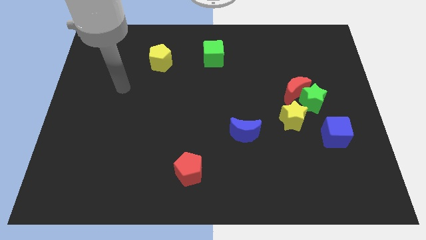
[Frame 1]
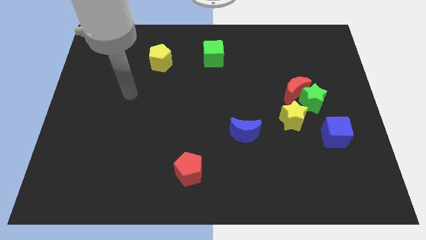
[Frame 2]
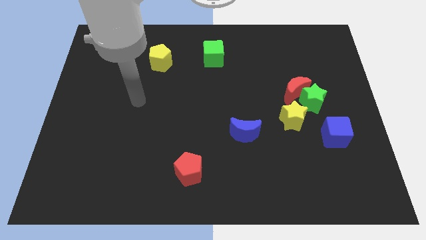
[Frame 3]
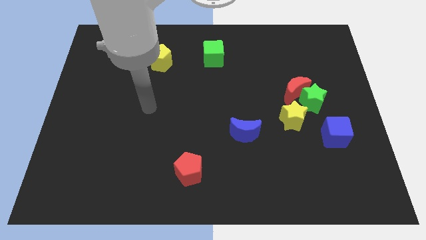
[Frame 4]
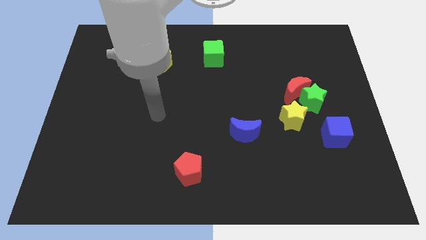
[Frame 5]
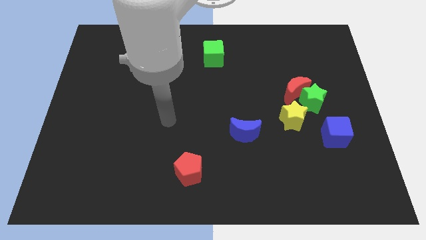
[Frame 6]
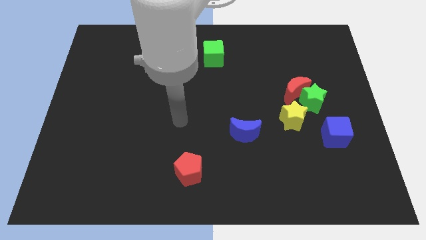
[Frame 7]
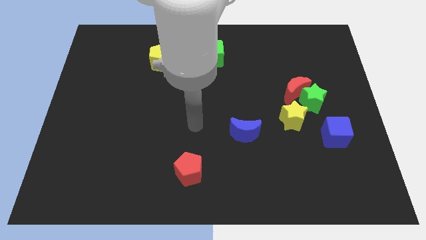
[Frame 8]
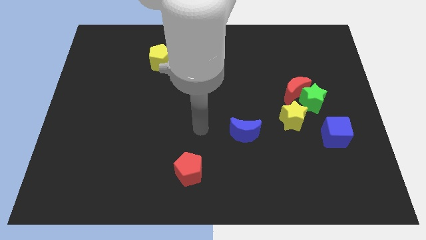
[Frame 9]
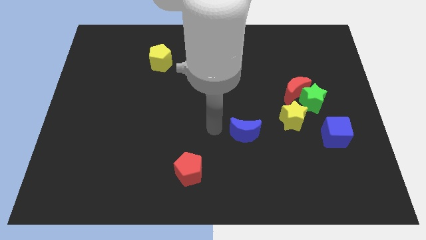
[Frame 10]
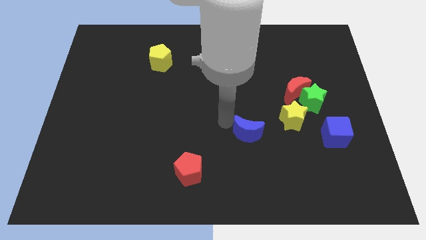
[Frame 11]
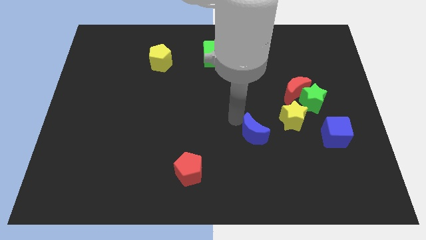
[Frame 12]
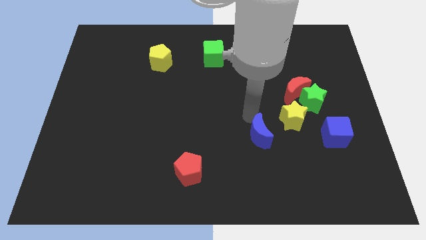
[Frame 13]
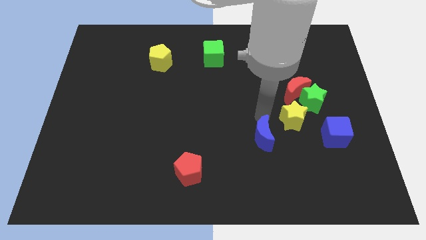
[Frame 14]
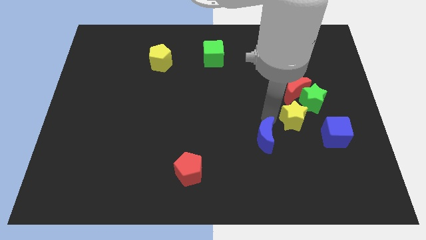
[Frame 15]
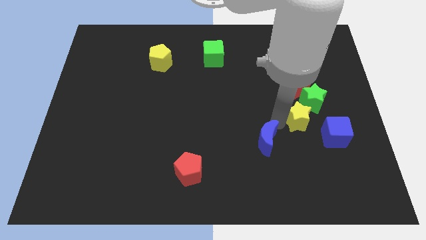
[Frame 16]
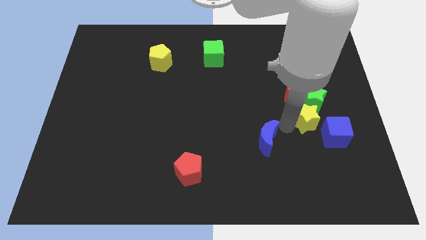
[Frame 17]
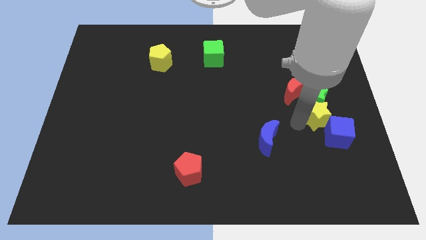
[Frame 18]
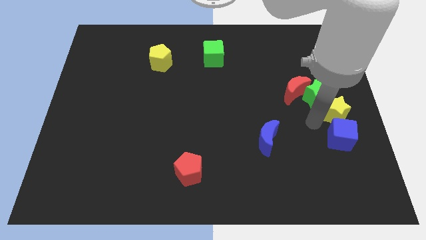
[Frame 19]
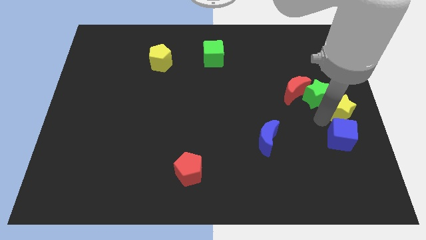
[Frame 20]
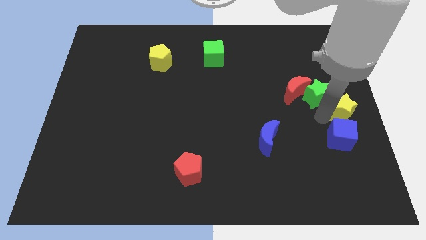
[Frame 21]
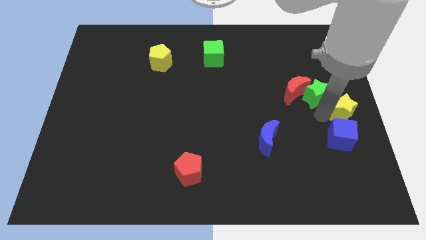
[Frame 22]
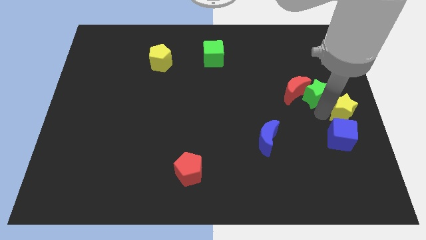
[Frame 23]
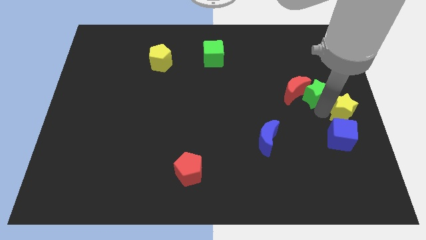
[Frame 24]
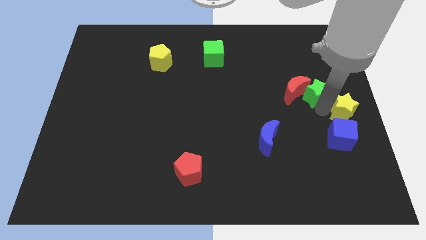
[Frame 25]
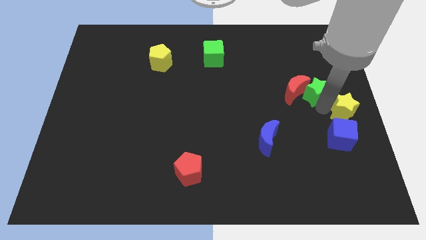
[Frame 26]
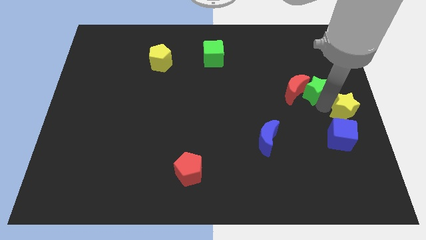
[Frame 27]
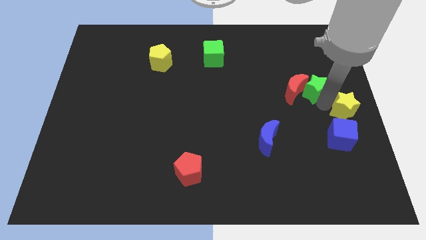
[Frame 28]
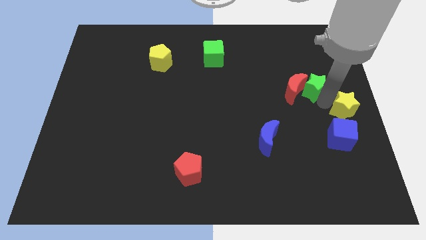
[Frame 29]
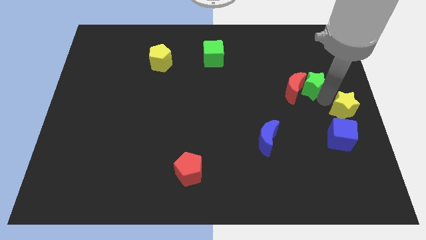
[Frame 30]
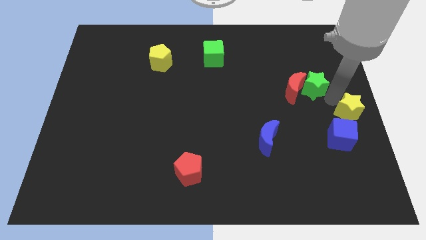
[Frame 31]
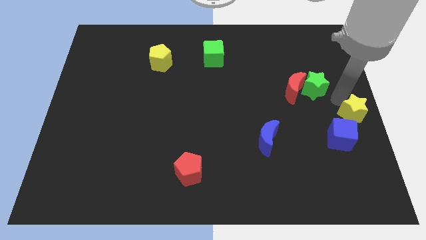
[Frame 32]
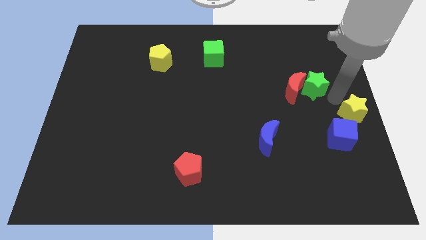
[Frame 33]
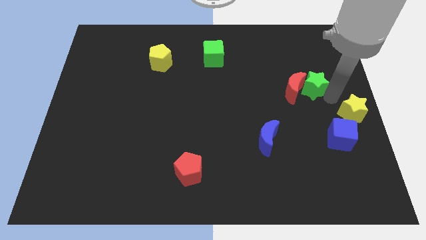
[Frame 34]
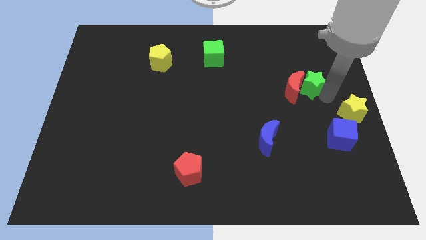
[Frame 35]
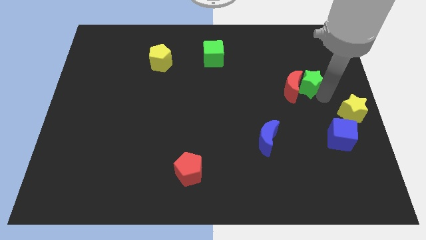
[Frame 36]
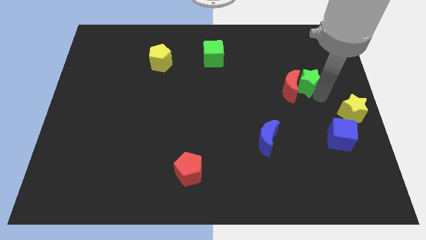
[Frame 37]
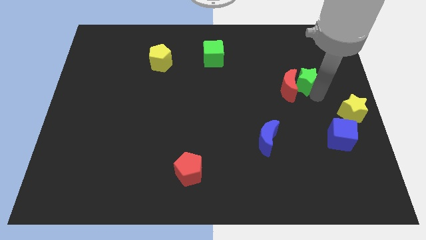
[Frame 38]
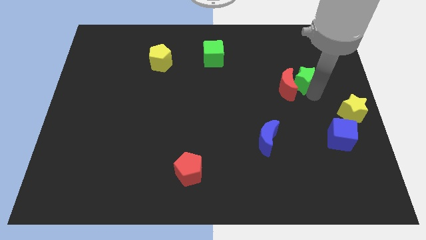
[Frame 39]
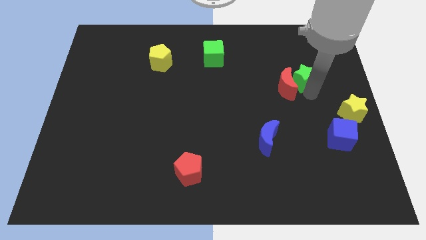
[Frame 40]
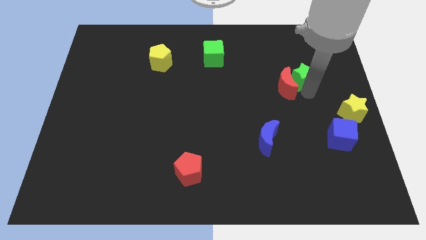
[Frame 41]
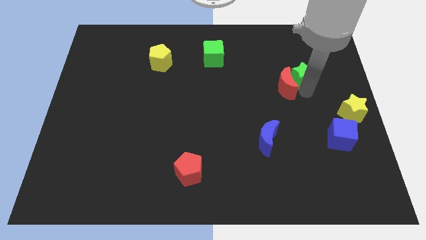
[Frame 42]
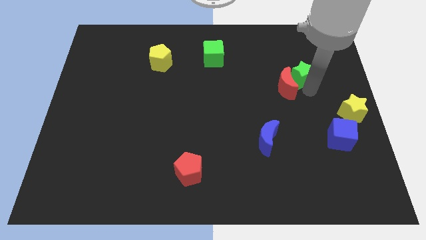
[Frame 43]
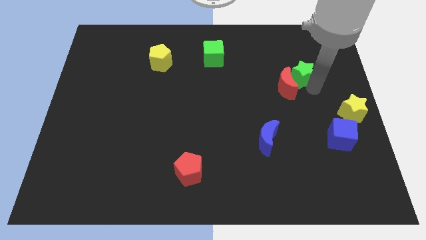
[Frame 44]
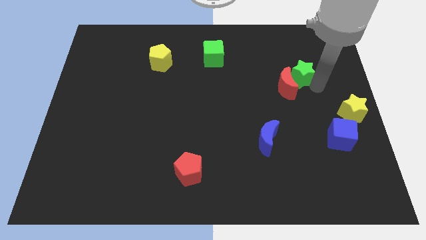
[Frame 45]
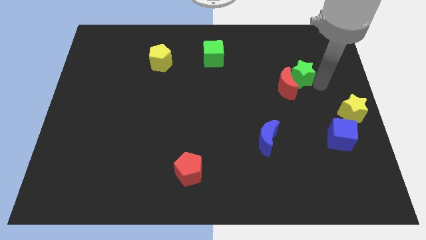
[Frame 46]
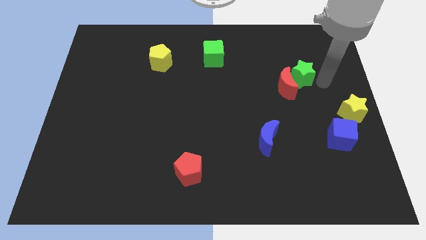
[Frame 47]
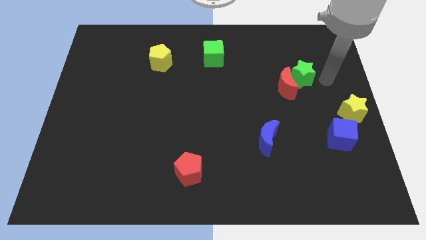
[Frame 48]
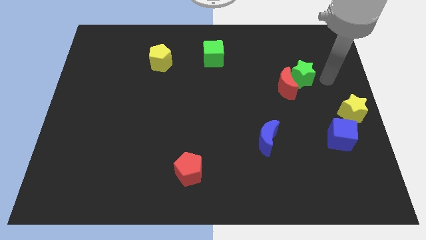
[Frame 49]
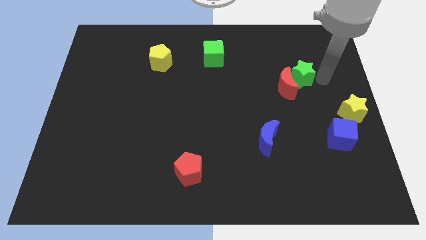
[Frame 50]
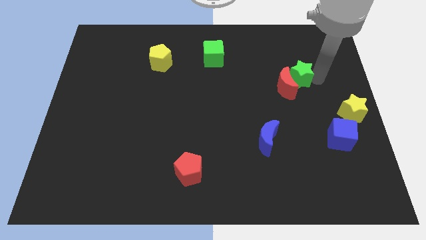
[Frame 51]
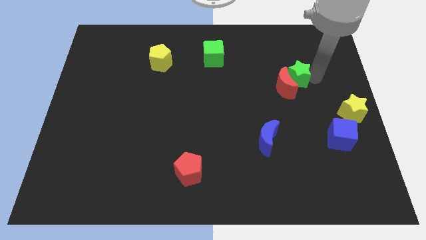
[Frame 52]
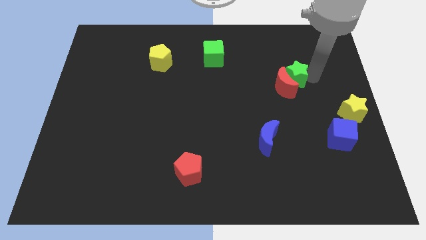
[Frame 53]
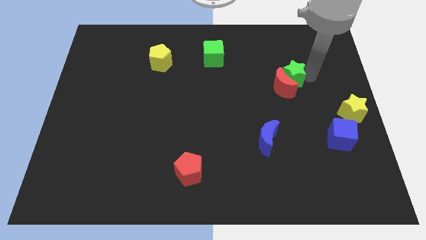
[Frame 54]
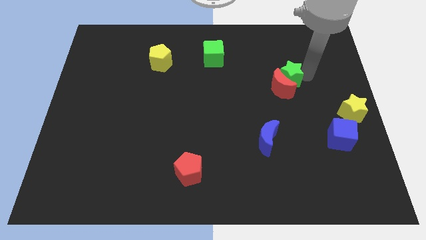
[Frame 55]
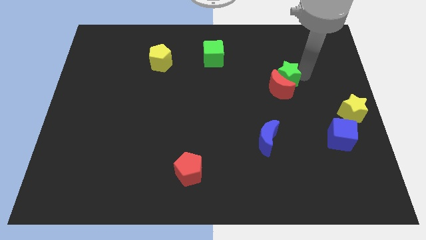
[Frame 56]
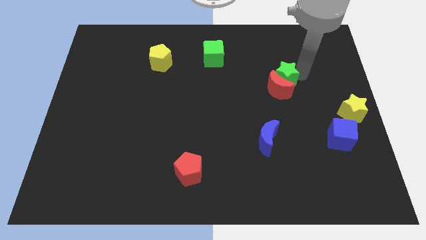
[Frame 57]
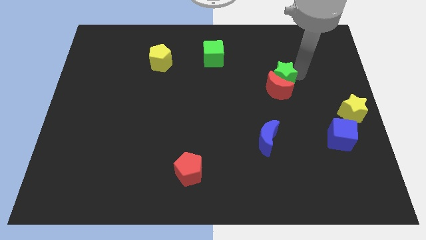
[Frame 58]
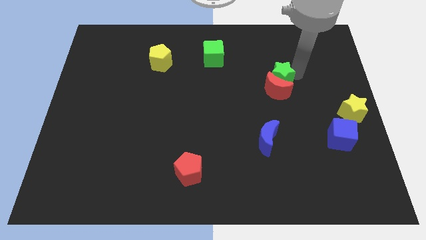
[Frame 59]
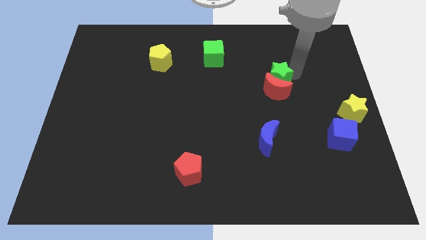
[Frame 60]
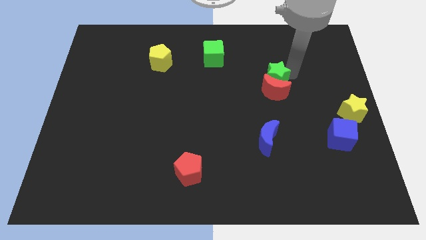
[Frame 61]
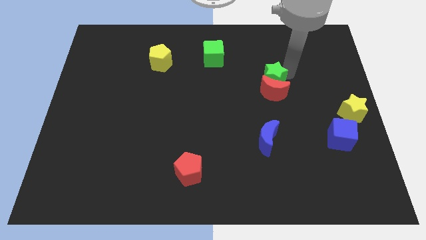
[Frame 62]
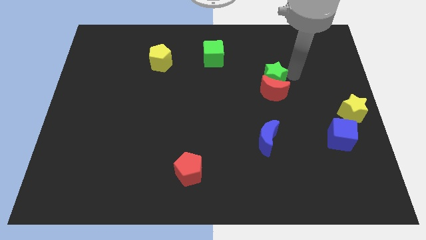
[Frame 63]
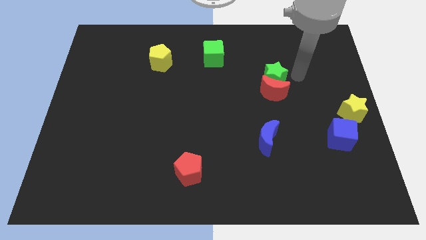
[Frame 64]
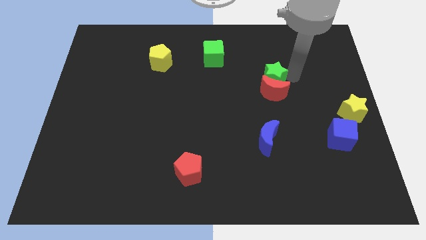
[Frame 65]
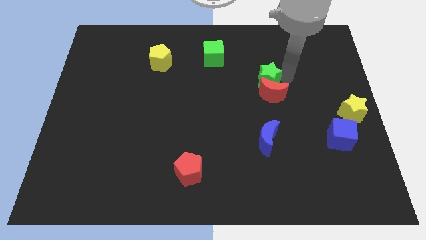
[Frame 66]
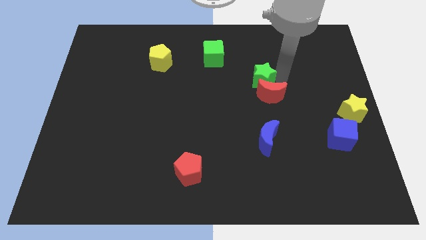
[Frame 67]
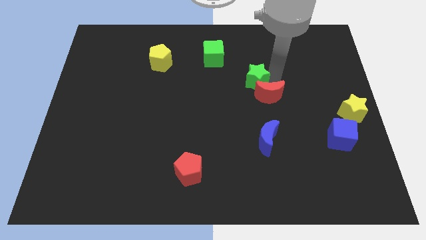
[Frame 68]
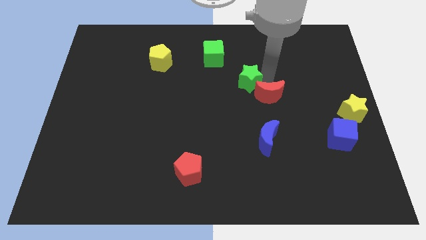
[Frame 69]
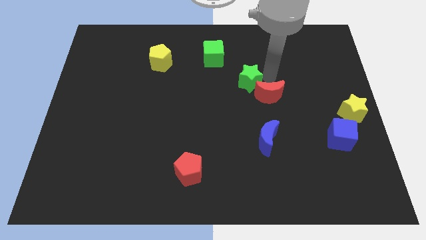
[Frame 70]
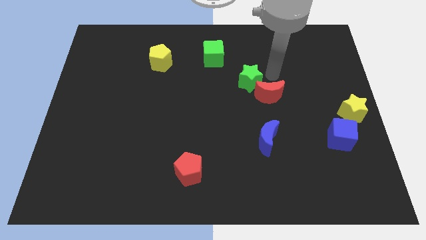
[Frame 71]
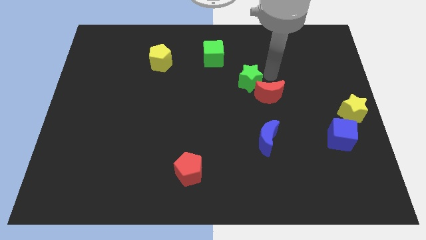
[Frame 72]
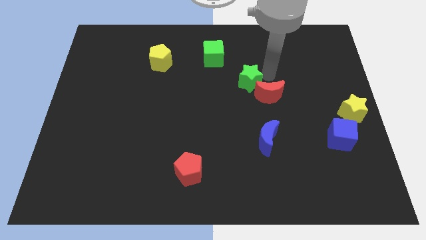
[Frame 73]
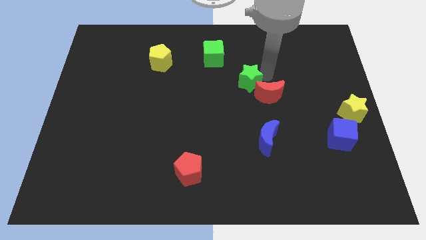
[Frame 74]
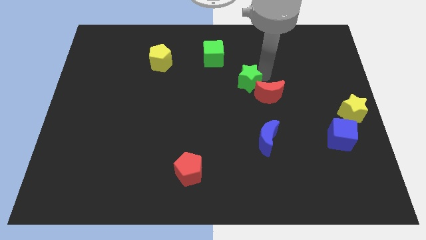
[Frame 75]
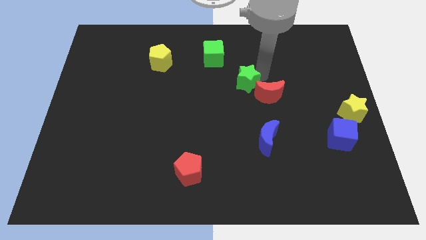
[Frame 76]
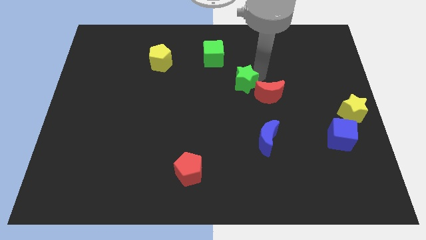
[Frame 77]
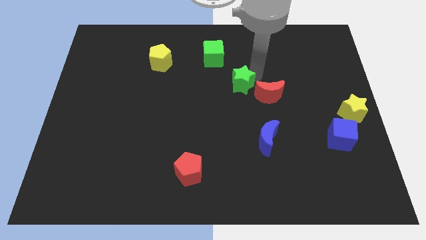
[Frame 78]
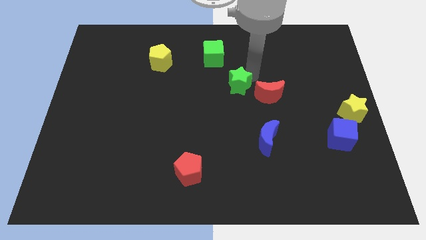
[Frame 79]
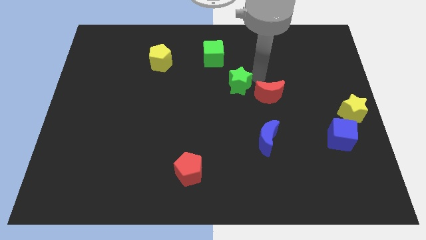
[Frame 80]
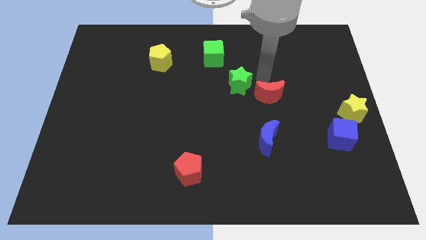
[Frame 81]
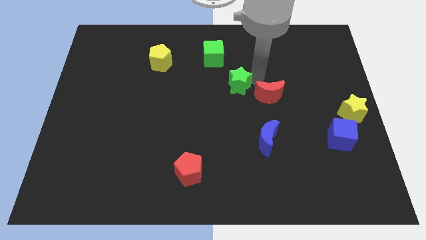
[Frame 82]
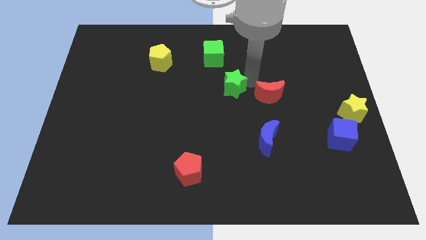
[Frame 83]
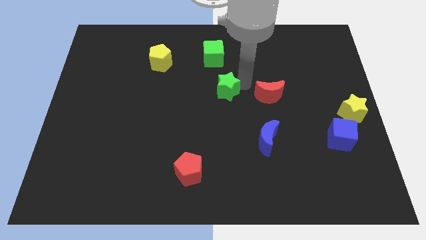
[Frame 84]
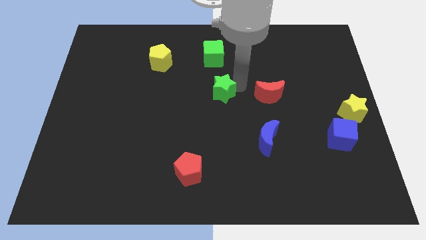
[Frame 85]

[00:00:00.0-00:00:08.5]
move the green star left
